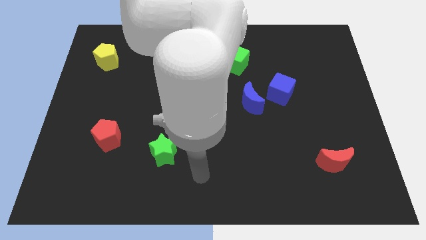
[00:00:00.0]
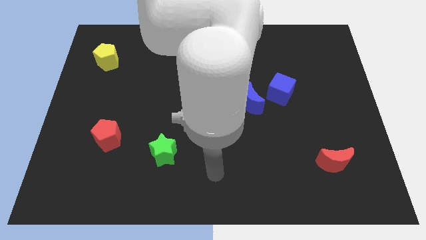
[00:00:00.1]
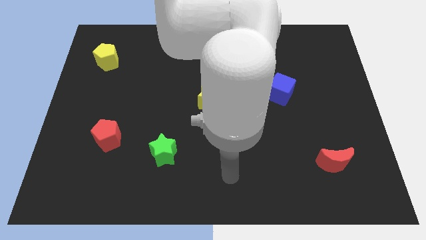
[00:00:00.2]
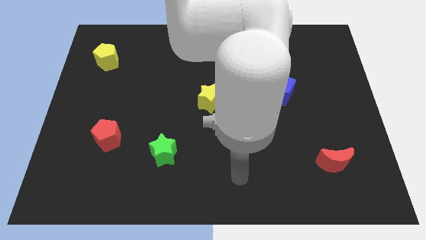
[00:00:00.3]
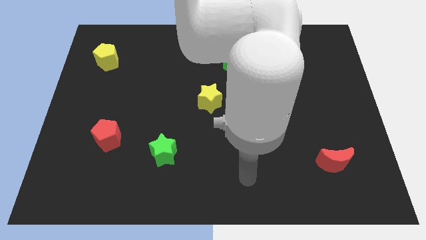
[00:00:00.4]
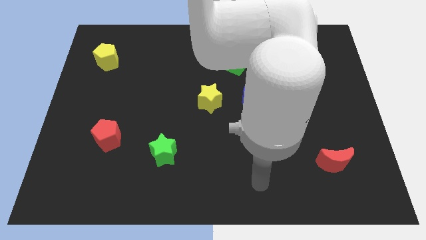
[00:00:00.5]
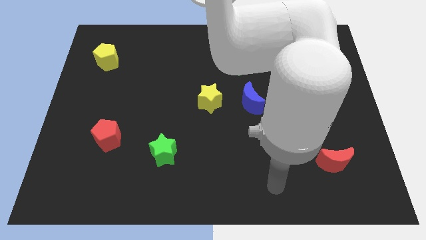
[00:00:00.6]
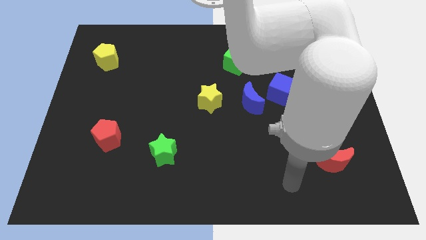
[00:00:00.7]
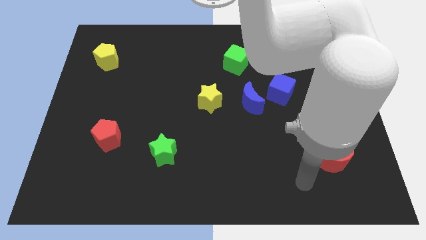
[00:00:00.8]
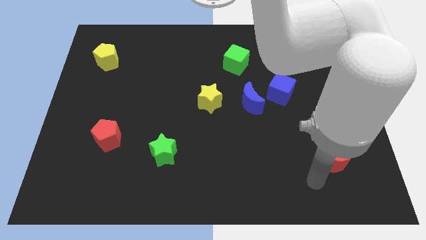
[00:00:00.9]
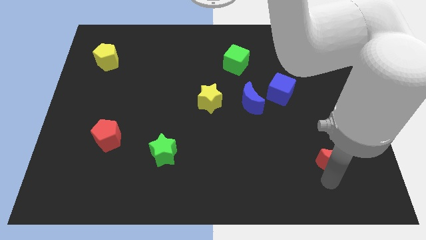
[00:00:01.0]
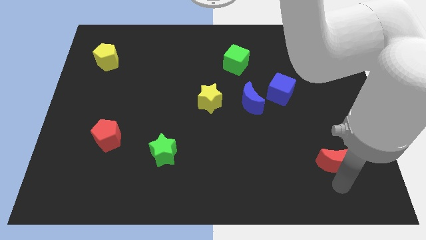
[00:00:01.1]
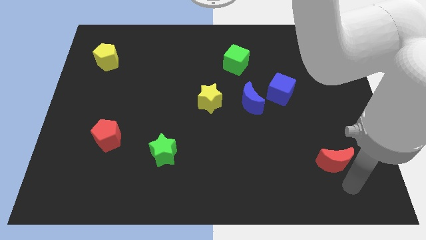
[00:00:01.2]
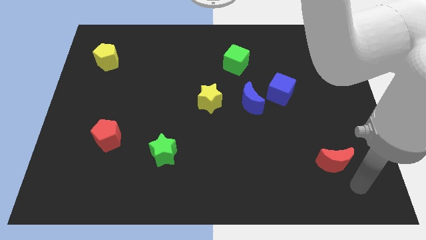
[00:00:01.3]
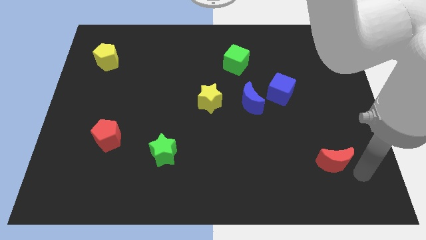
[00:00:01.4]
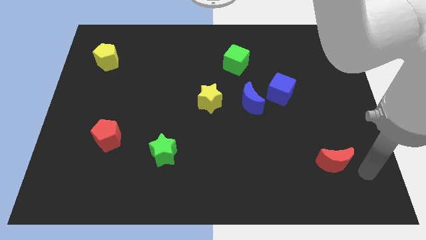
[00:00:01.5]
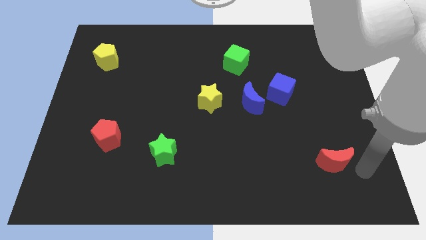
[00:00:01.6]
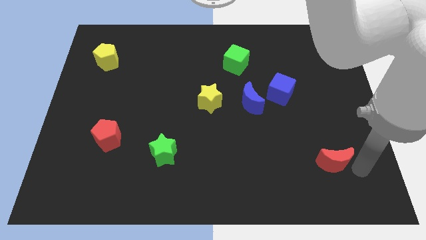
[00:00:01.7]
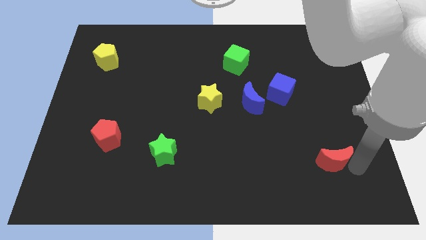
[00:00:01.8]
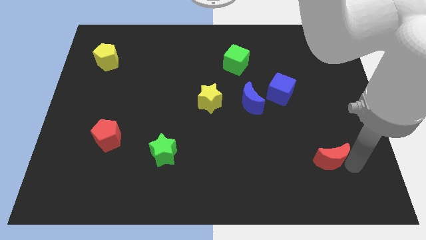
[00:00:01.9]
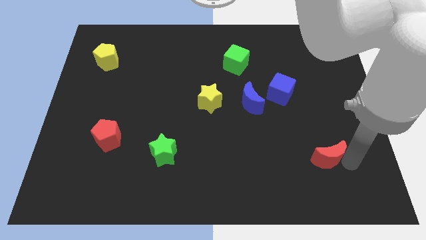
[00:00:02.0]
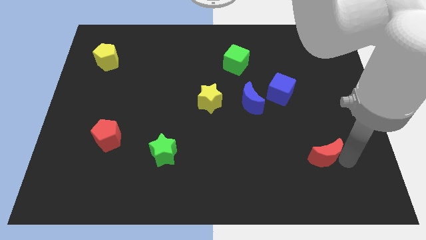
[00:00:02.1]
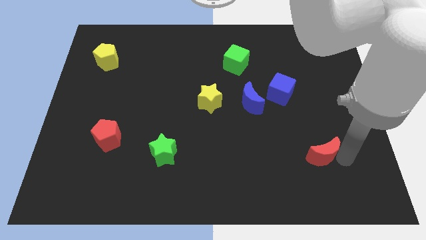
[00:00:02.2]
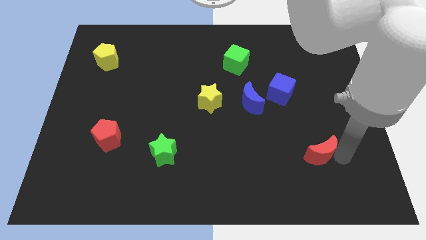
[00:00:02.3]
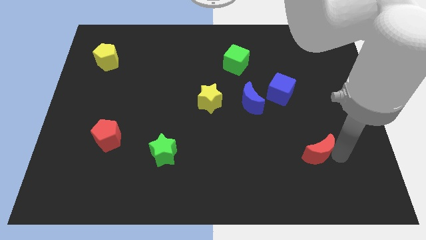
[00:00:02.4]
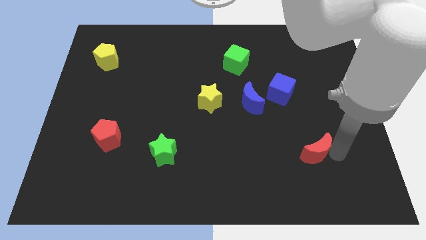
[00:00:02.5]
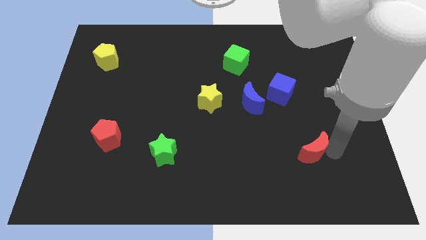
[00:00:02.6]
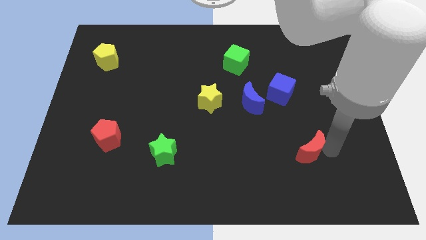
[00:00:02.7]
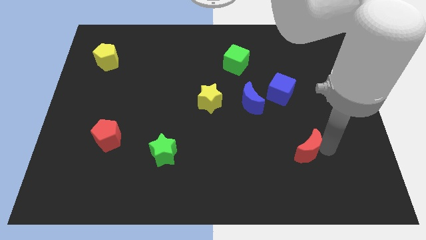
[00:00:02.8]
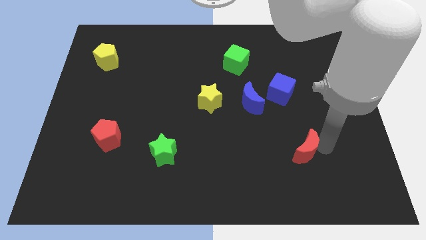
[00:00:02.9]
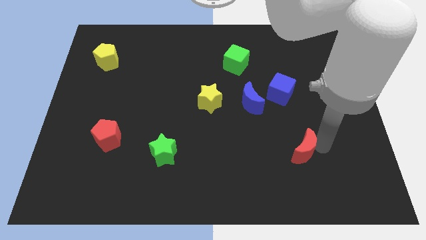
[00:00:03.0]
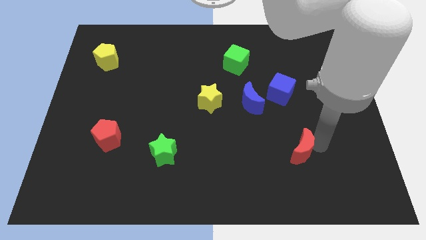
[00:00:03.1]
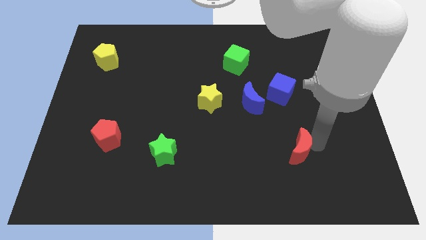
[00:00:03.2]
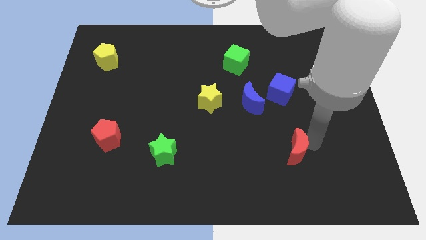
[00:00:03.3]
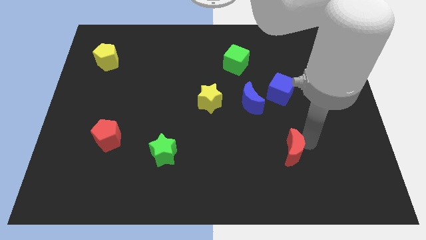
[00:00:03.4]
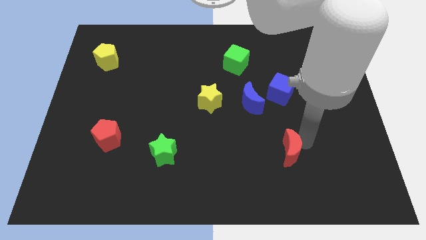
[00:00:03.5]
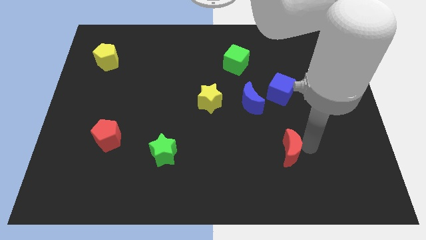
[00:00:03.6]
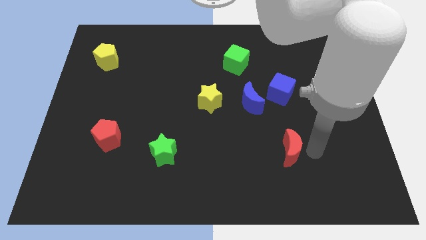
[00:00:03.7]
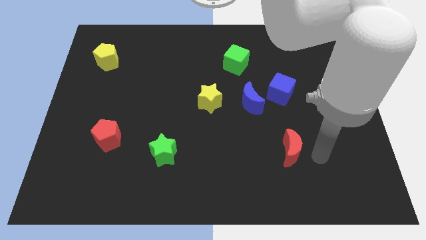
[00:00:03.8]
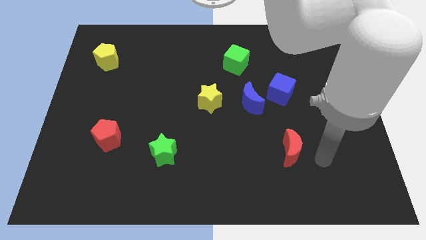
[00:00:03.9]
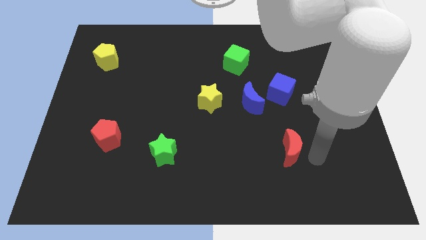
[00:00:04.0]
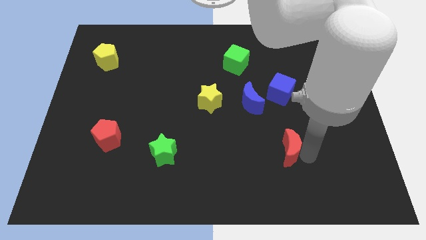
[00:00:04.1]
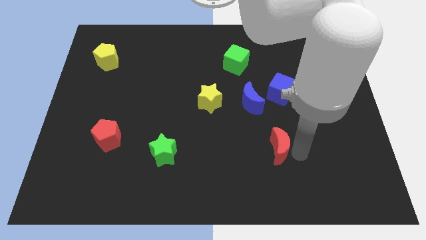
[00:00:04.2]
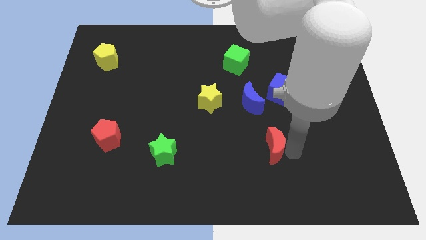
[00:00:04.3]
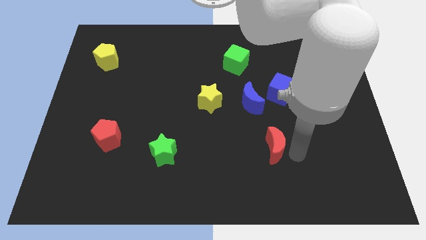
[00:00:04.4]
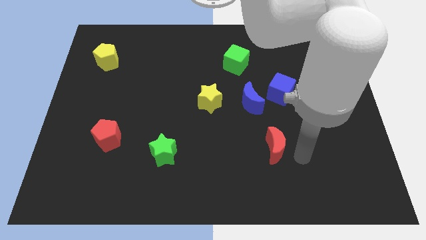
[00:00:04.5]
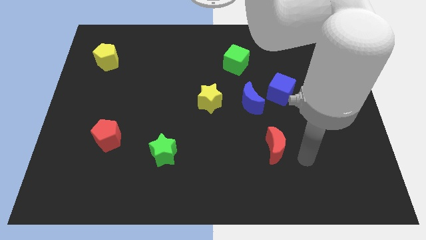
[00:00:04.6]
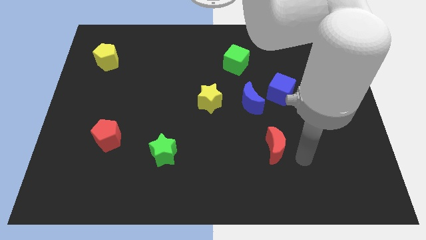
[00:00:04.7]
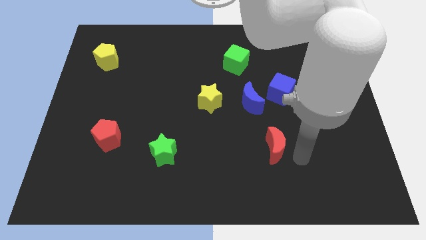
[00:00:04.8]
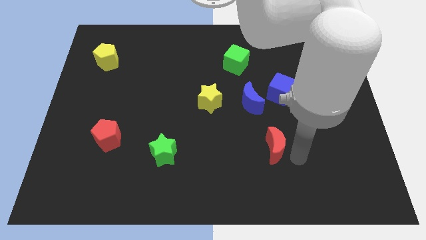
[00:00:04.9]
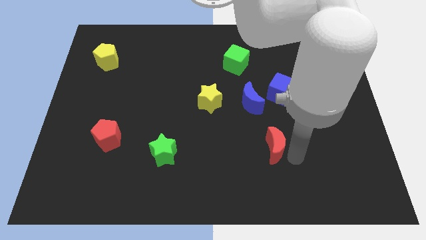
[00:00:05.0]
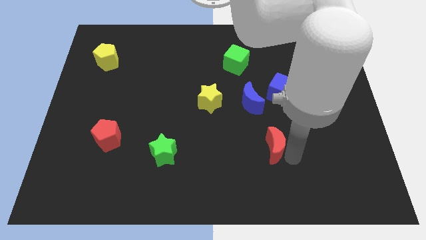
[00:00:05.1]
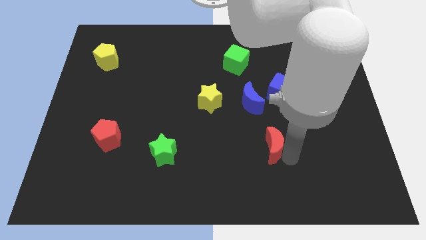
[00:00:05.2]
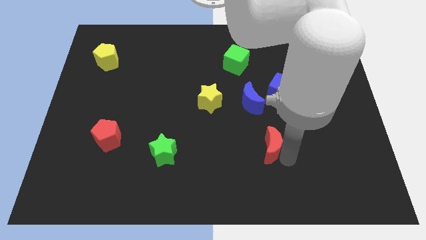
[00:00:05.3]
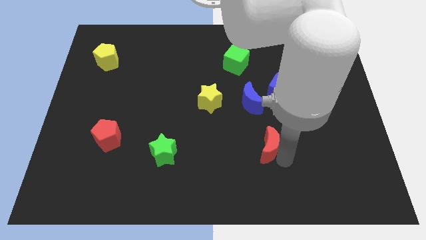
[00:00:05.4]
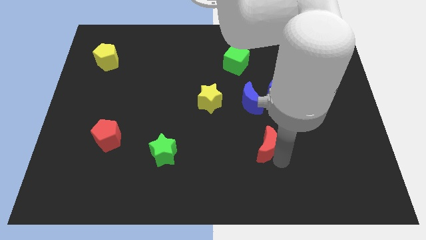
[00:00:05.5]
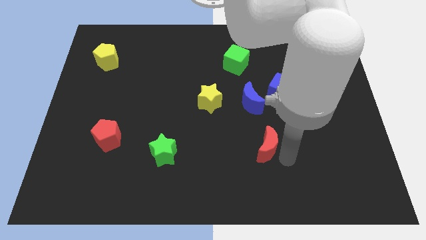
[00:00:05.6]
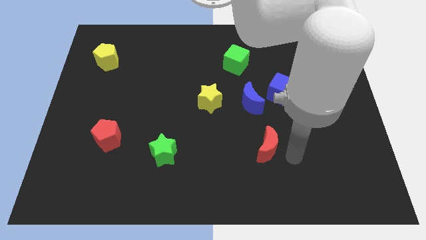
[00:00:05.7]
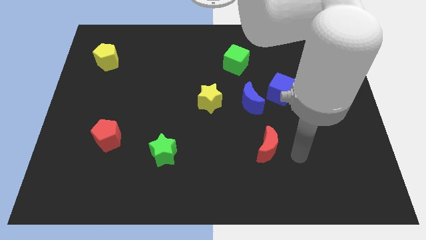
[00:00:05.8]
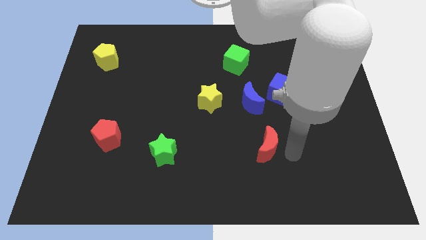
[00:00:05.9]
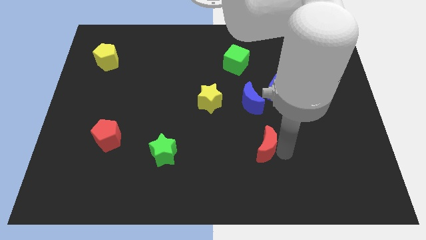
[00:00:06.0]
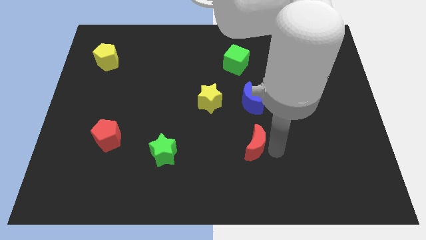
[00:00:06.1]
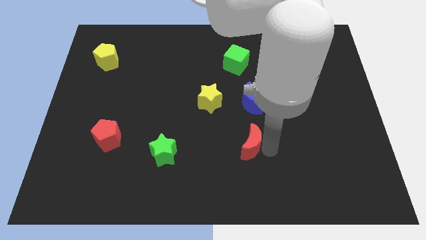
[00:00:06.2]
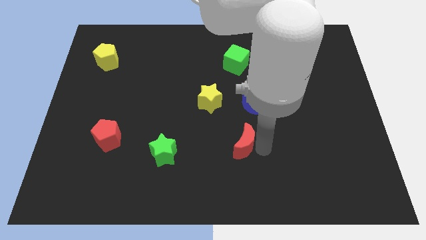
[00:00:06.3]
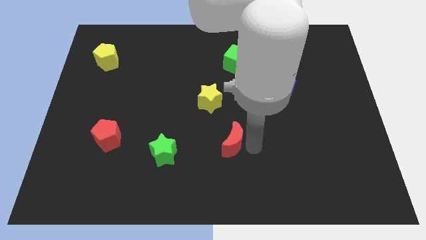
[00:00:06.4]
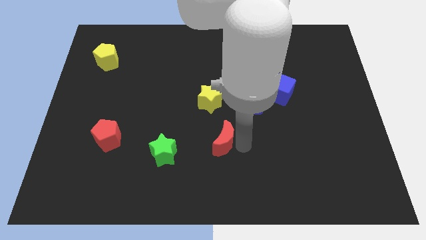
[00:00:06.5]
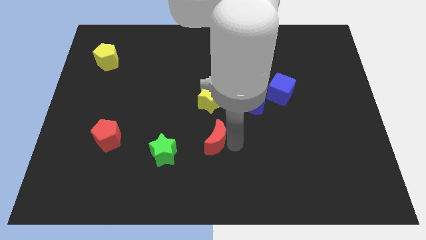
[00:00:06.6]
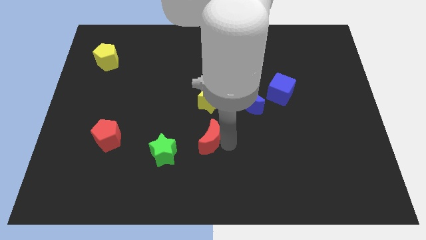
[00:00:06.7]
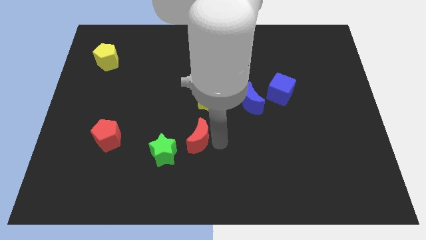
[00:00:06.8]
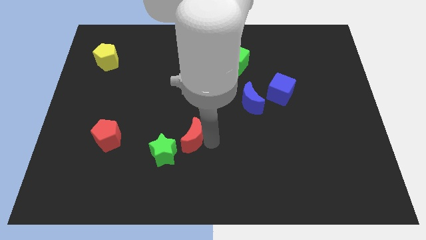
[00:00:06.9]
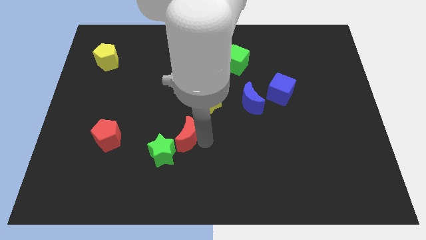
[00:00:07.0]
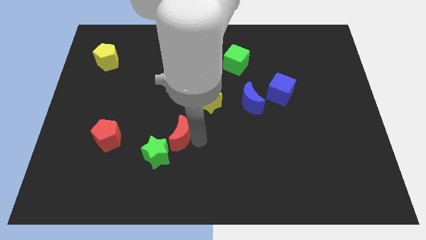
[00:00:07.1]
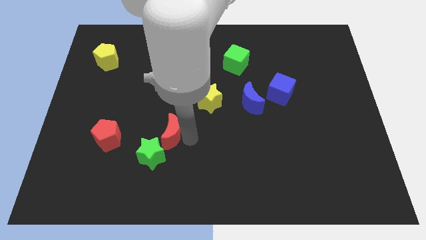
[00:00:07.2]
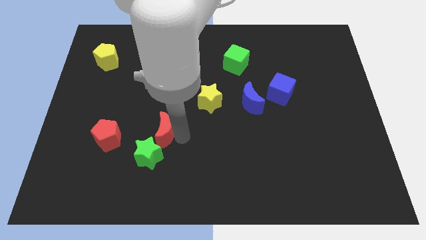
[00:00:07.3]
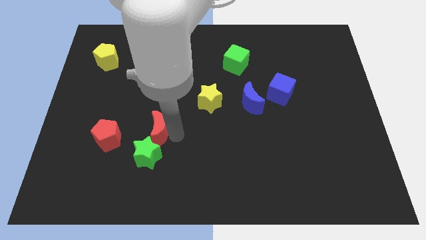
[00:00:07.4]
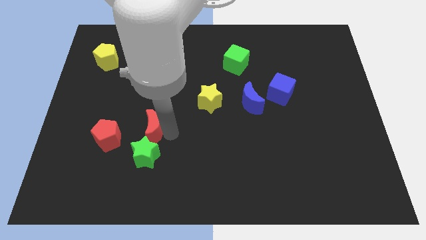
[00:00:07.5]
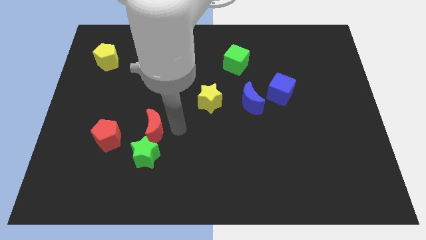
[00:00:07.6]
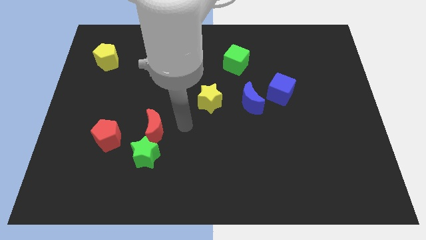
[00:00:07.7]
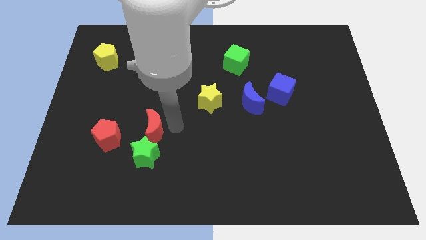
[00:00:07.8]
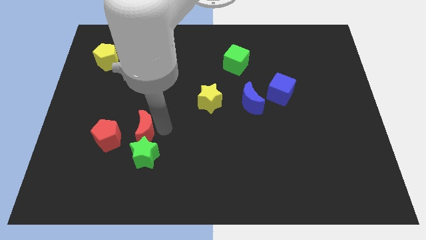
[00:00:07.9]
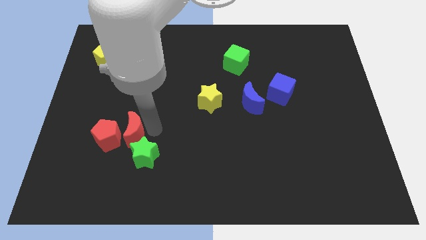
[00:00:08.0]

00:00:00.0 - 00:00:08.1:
push the red moon to the red pentagon
